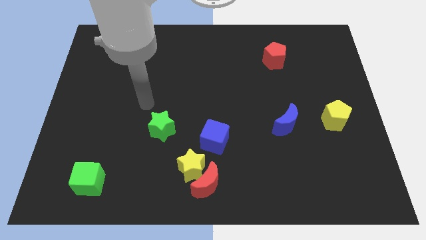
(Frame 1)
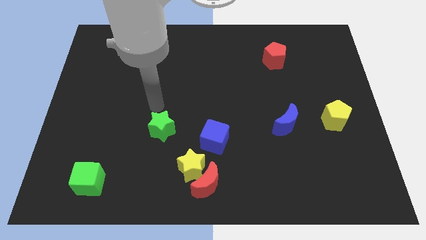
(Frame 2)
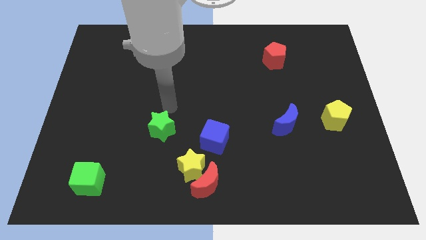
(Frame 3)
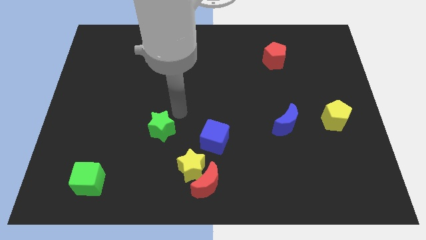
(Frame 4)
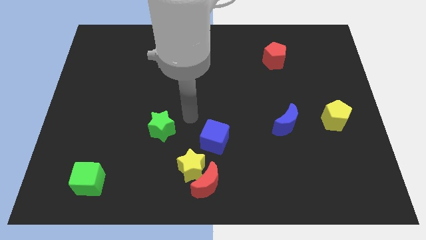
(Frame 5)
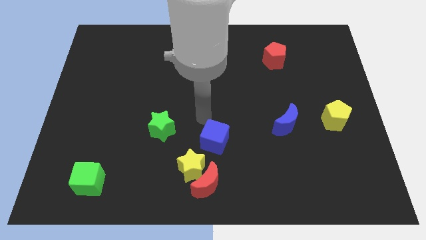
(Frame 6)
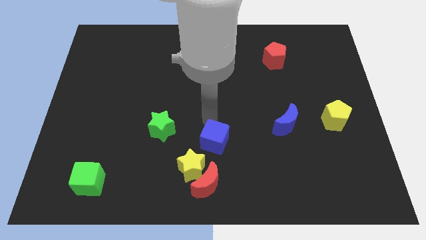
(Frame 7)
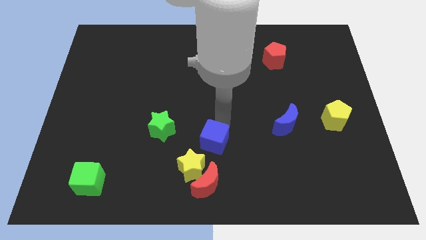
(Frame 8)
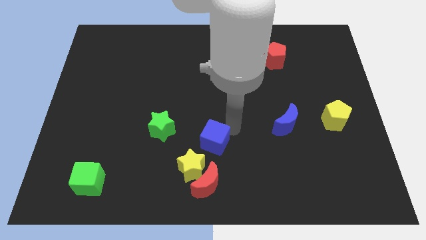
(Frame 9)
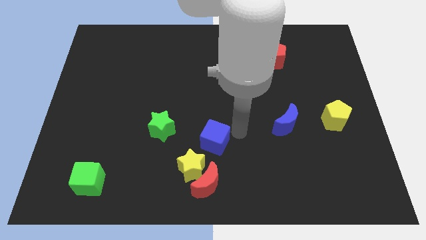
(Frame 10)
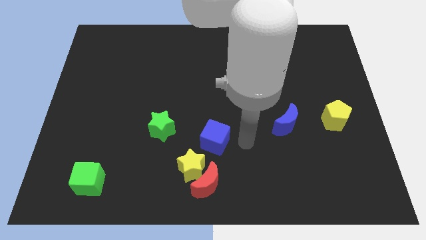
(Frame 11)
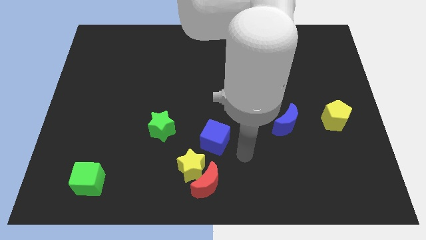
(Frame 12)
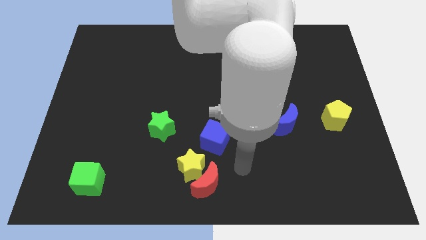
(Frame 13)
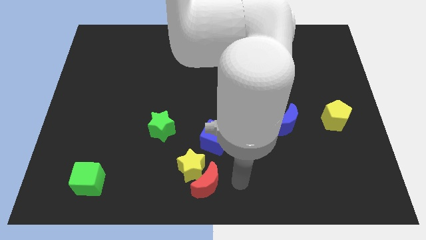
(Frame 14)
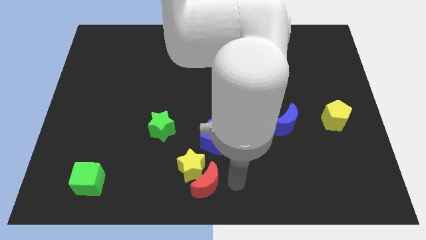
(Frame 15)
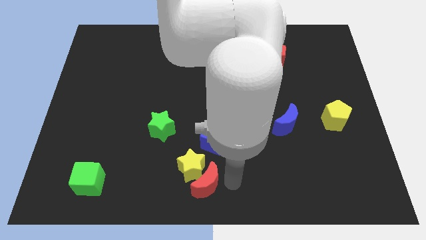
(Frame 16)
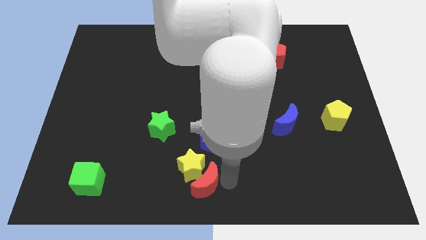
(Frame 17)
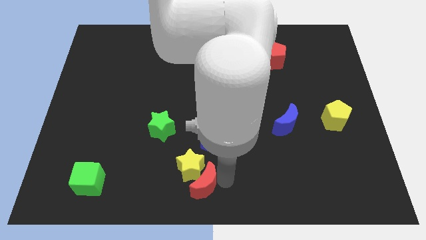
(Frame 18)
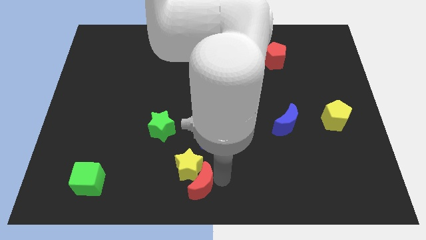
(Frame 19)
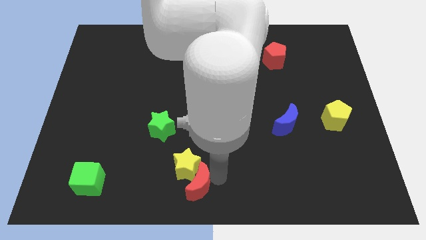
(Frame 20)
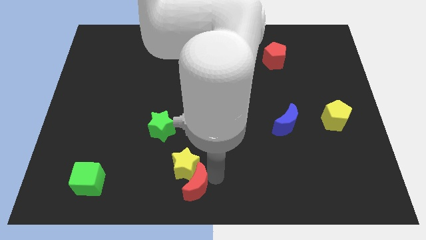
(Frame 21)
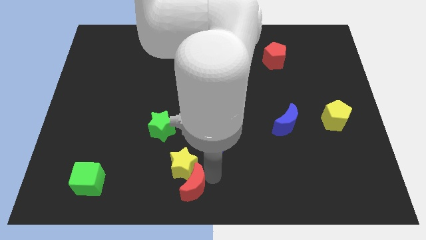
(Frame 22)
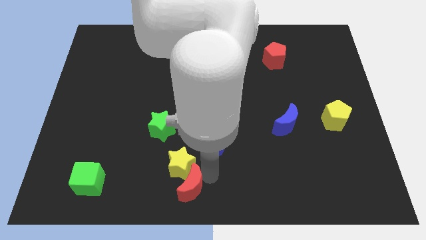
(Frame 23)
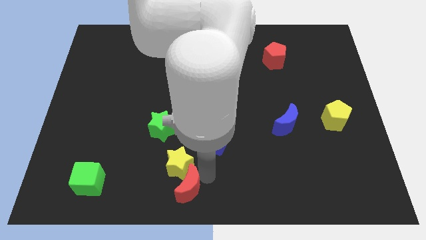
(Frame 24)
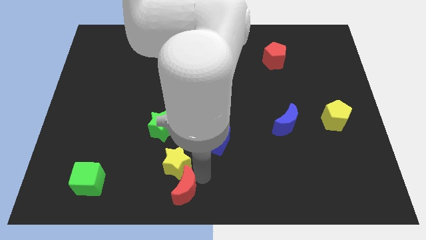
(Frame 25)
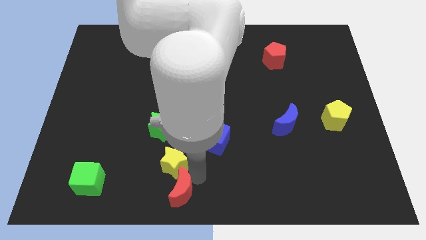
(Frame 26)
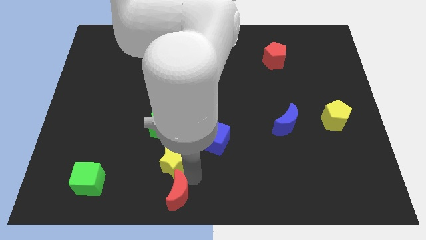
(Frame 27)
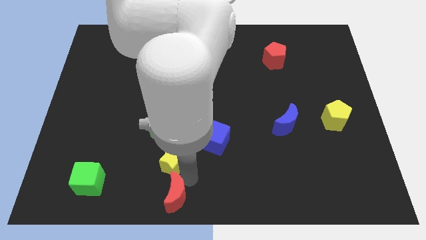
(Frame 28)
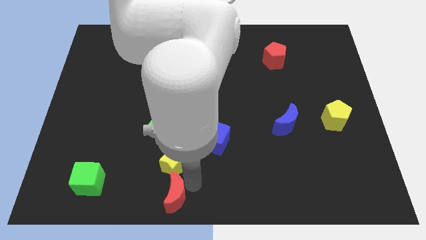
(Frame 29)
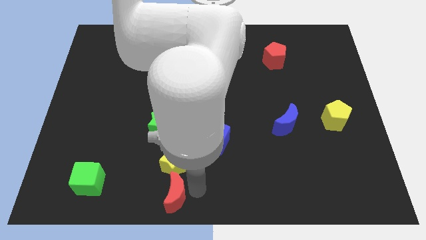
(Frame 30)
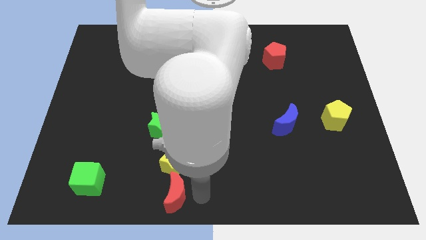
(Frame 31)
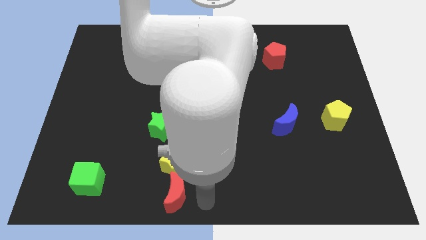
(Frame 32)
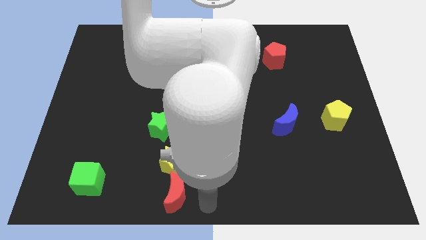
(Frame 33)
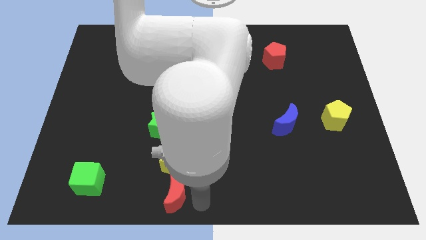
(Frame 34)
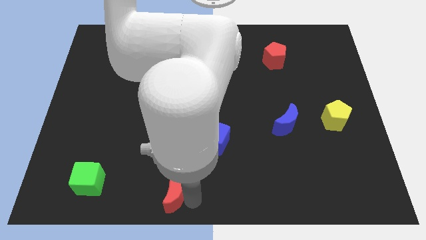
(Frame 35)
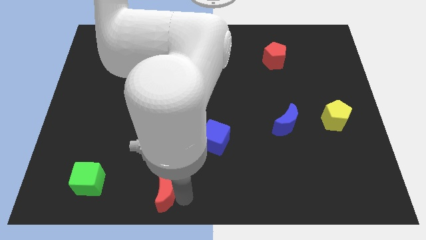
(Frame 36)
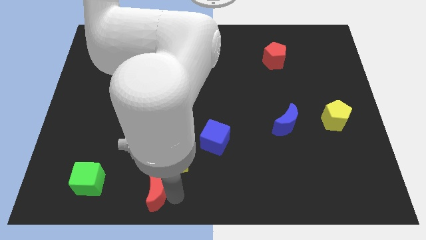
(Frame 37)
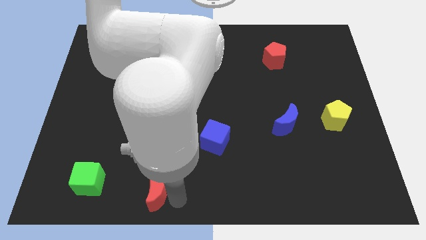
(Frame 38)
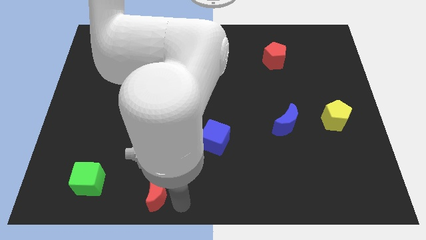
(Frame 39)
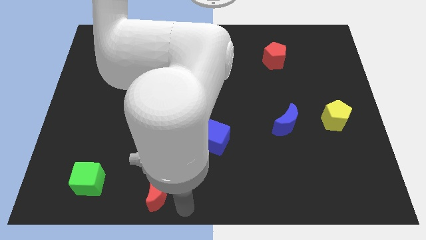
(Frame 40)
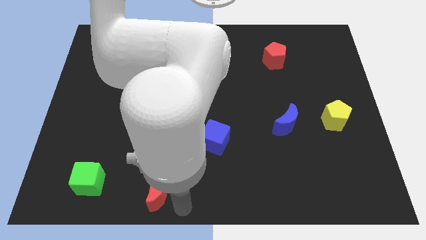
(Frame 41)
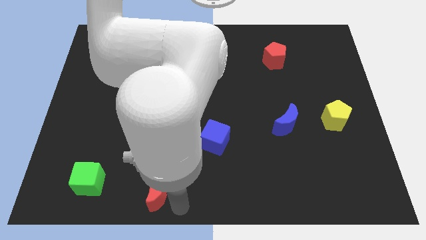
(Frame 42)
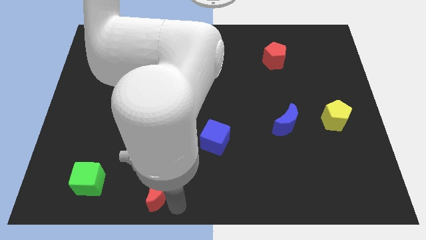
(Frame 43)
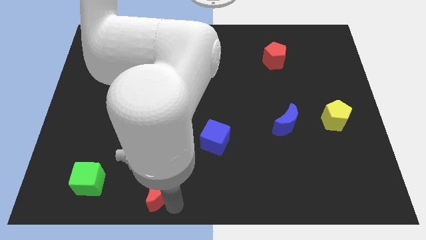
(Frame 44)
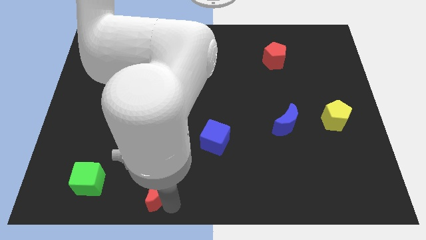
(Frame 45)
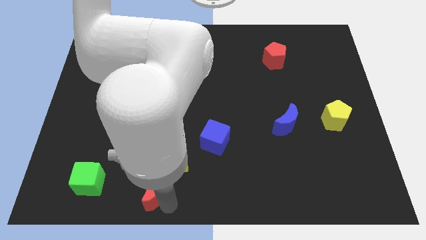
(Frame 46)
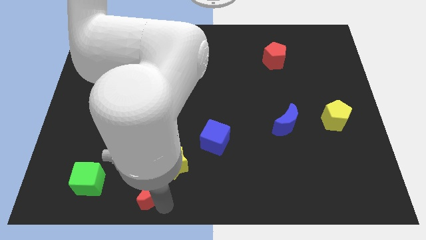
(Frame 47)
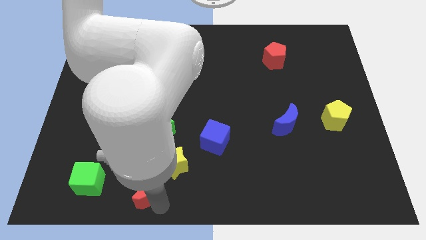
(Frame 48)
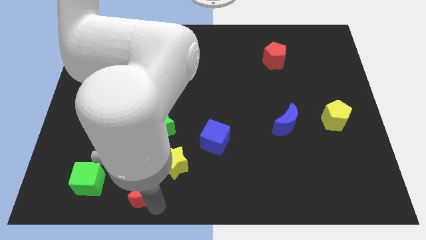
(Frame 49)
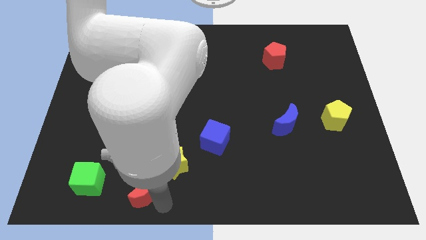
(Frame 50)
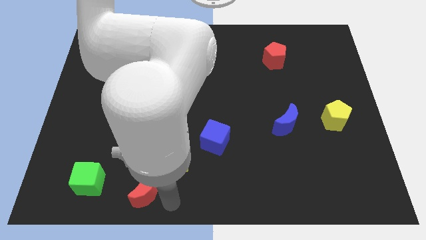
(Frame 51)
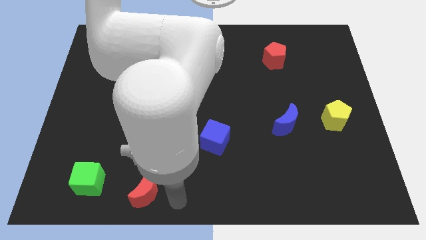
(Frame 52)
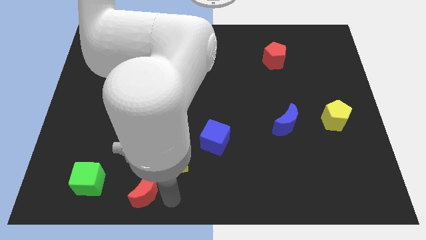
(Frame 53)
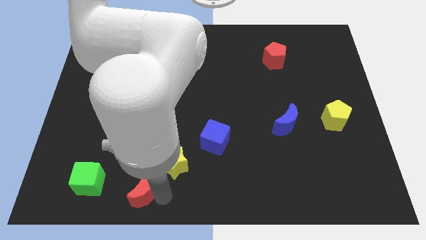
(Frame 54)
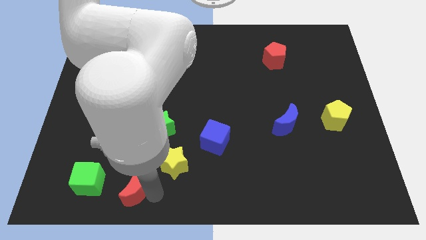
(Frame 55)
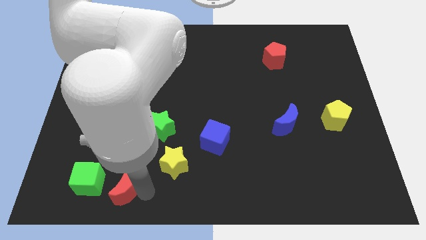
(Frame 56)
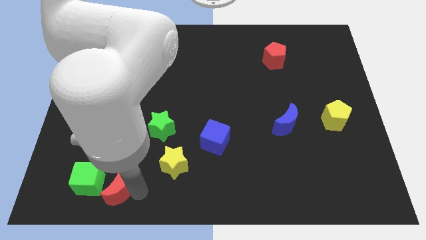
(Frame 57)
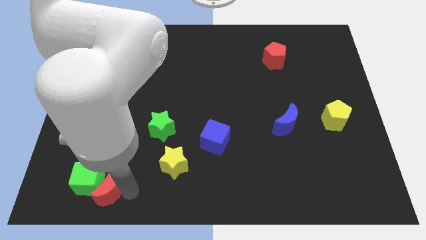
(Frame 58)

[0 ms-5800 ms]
move the red moon towards the green cube

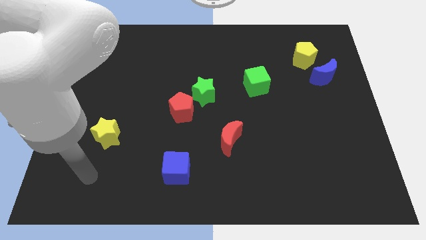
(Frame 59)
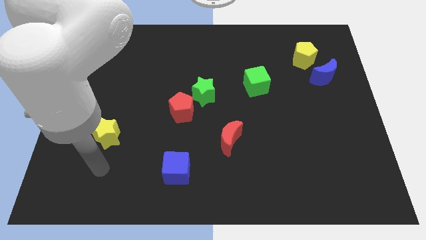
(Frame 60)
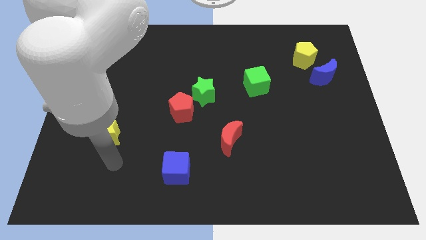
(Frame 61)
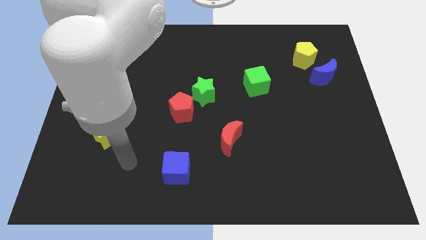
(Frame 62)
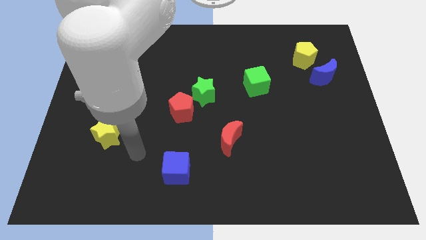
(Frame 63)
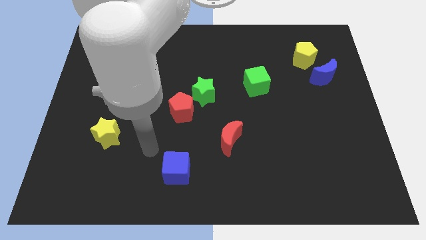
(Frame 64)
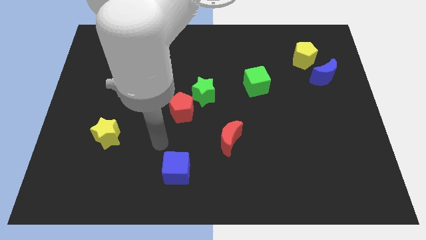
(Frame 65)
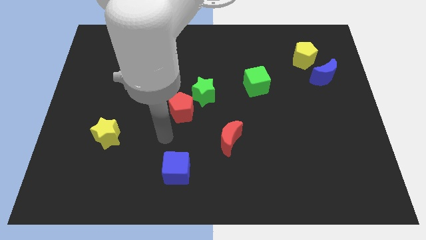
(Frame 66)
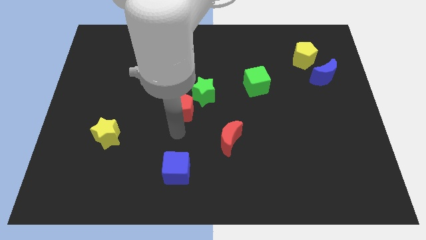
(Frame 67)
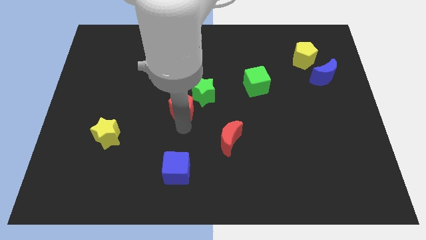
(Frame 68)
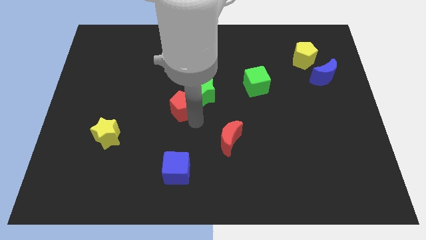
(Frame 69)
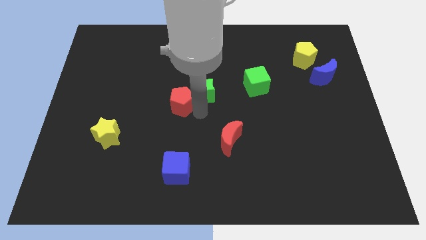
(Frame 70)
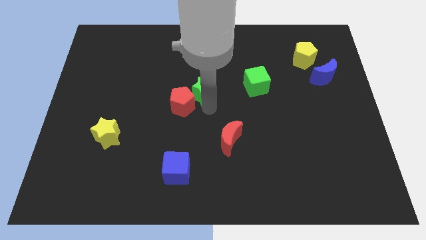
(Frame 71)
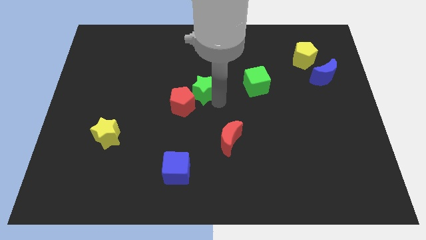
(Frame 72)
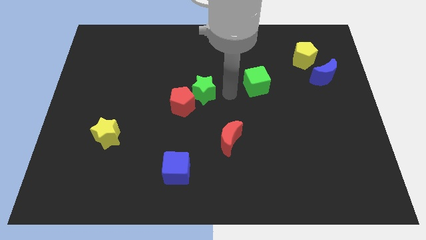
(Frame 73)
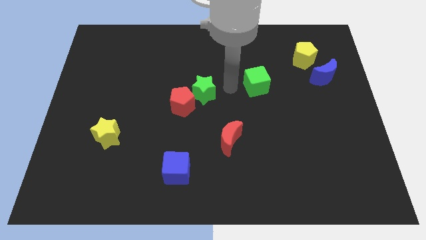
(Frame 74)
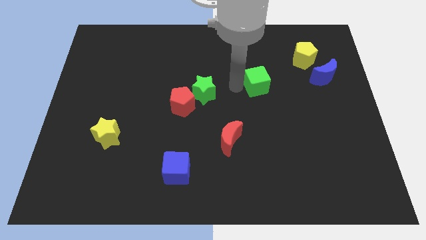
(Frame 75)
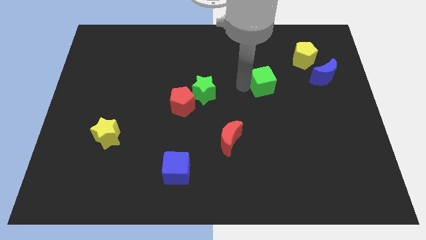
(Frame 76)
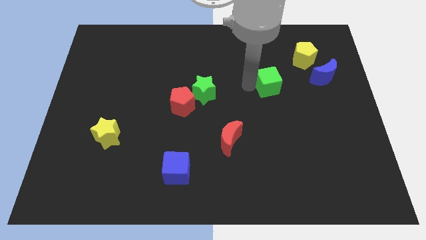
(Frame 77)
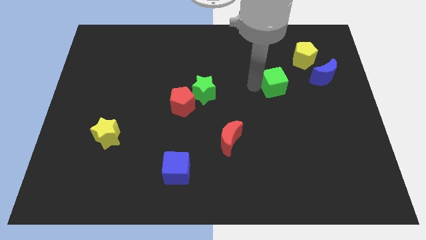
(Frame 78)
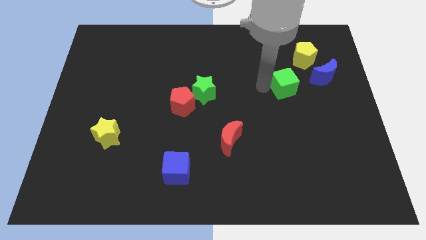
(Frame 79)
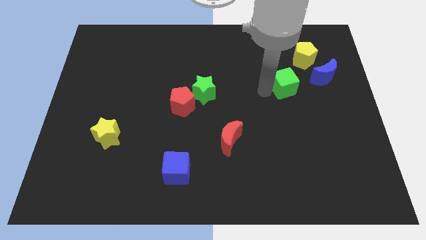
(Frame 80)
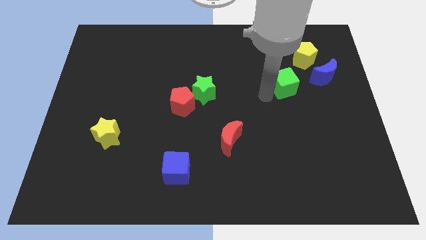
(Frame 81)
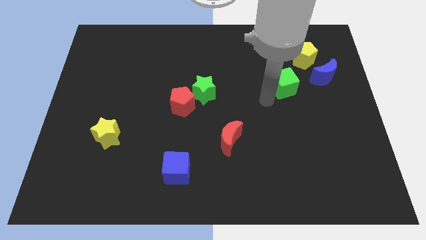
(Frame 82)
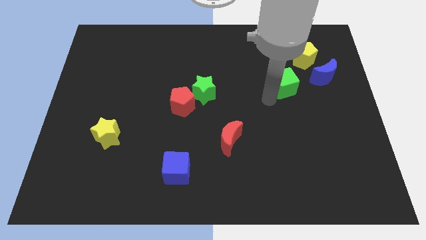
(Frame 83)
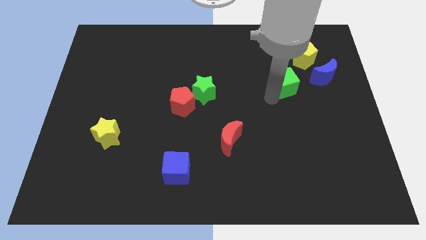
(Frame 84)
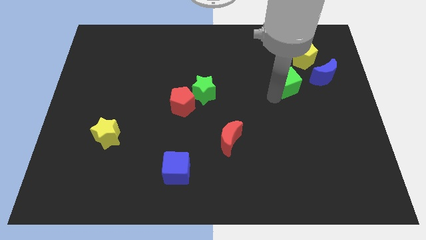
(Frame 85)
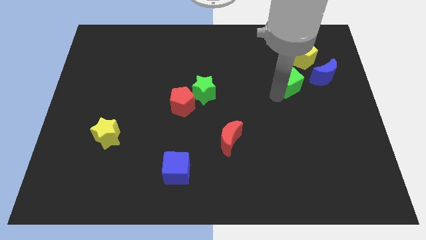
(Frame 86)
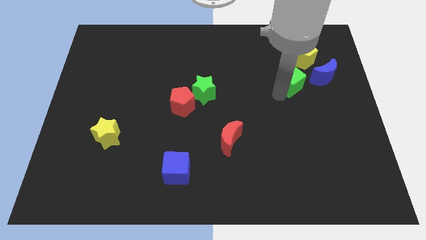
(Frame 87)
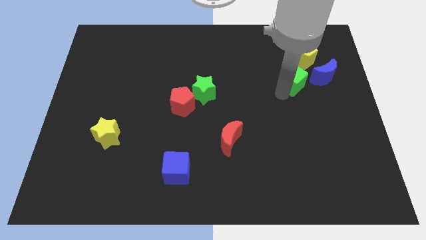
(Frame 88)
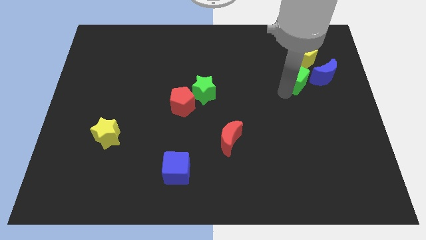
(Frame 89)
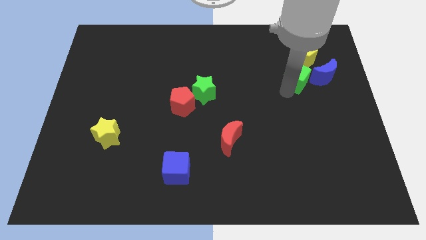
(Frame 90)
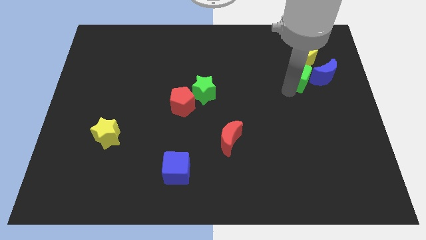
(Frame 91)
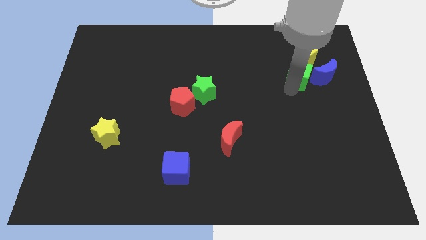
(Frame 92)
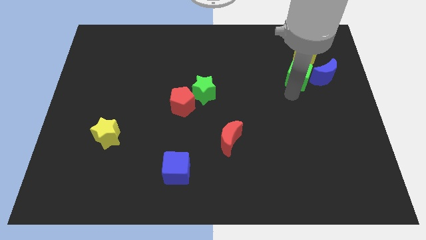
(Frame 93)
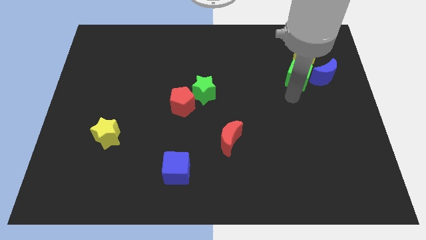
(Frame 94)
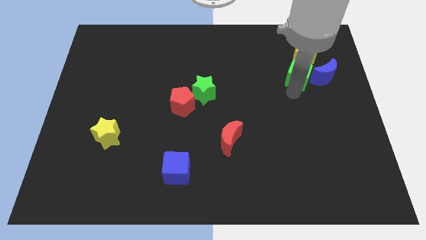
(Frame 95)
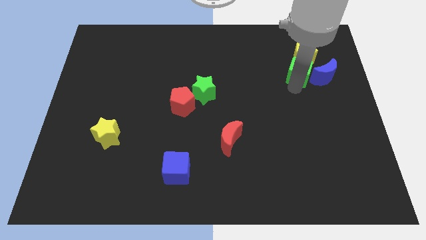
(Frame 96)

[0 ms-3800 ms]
put the green cube towards the yellow pentagon
